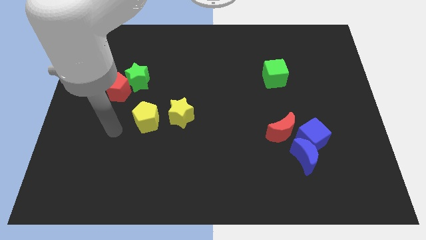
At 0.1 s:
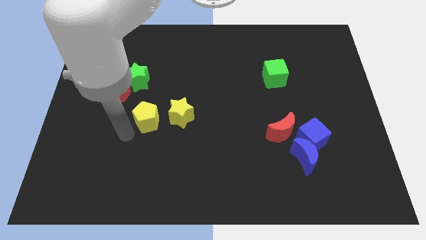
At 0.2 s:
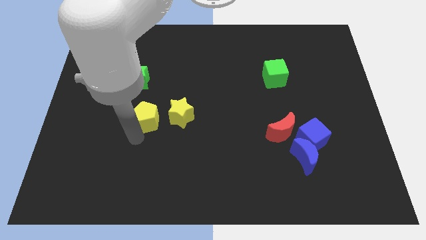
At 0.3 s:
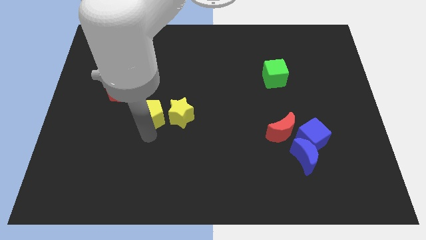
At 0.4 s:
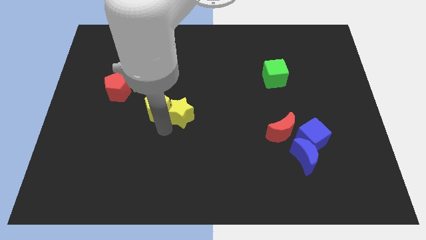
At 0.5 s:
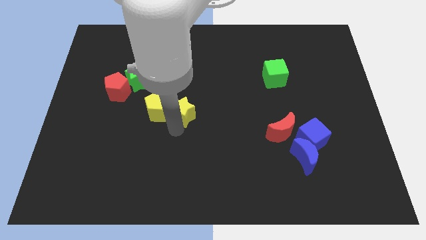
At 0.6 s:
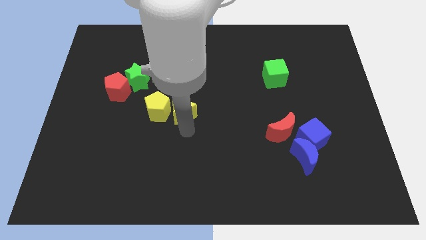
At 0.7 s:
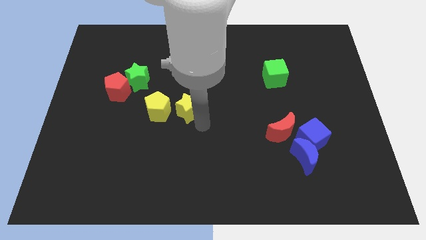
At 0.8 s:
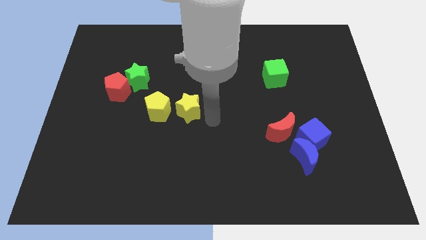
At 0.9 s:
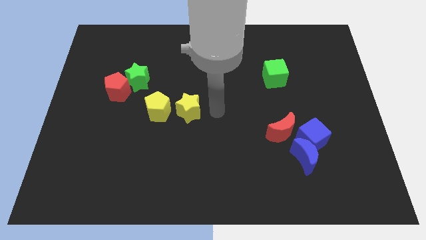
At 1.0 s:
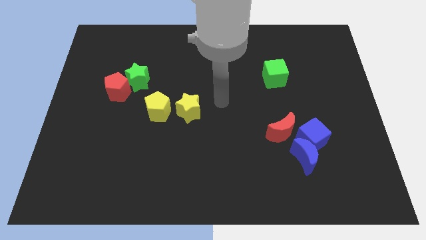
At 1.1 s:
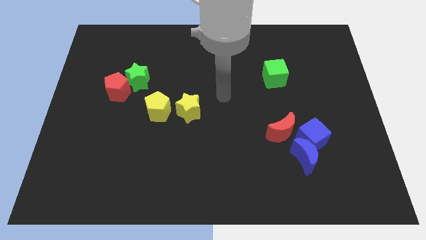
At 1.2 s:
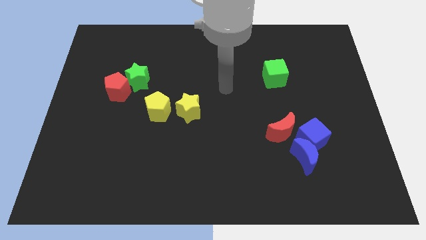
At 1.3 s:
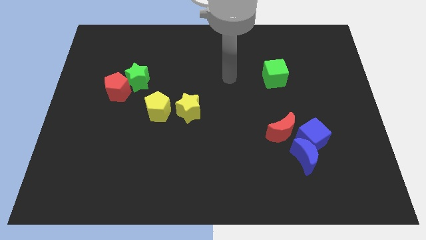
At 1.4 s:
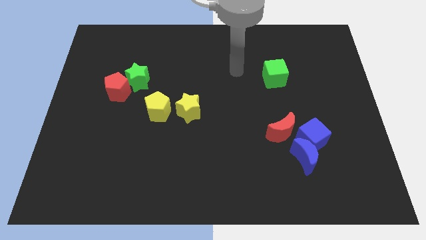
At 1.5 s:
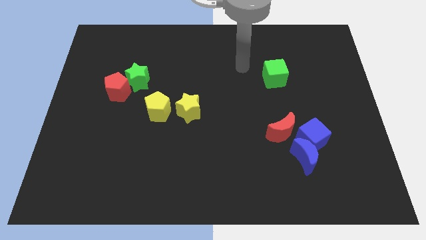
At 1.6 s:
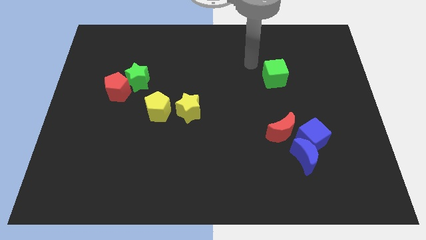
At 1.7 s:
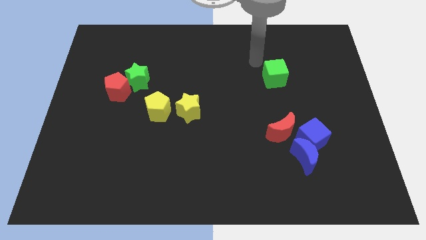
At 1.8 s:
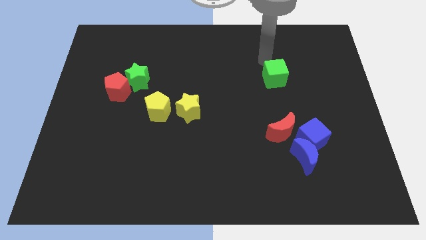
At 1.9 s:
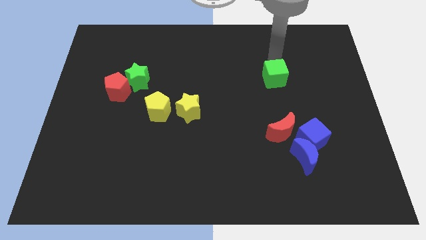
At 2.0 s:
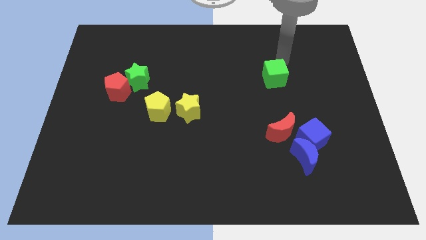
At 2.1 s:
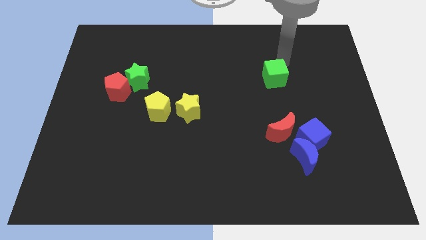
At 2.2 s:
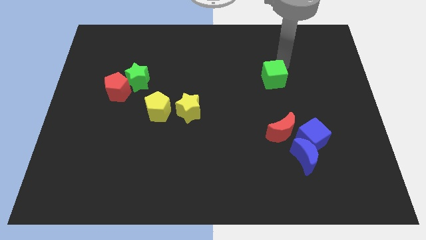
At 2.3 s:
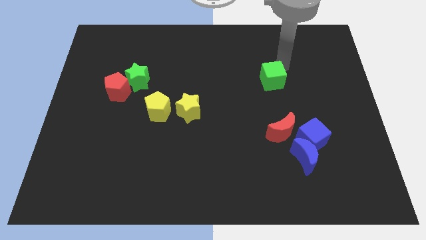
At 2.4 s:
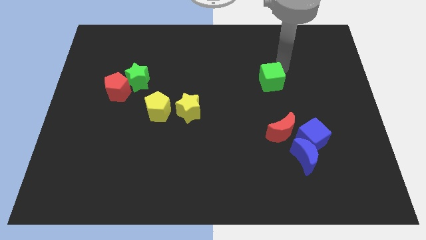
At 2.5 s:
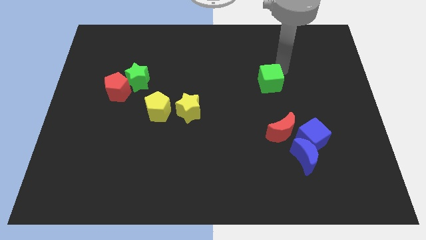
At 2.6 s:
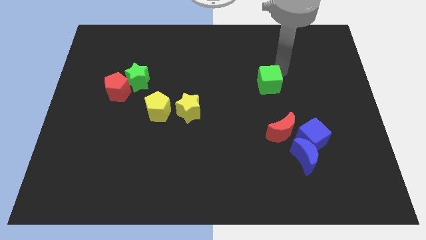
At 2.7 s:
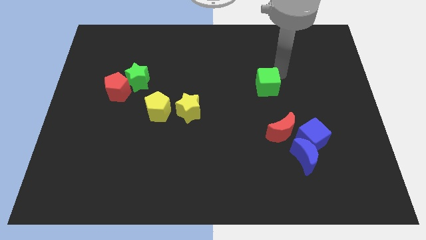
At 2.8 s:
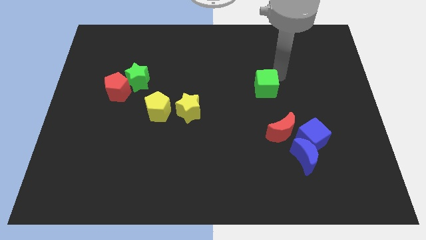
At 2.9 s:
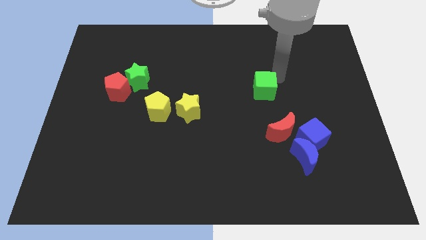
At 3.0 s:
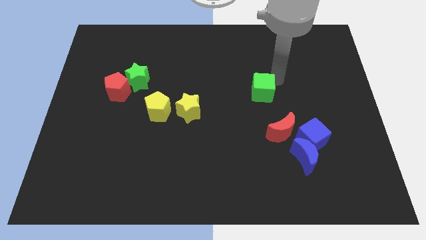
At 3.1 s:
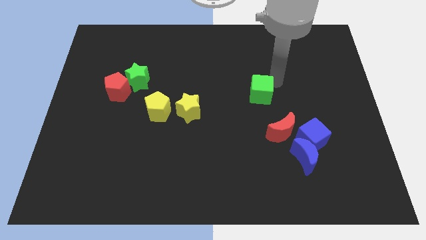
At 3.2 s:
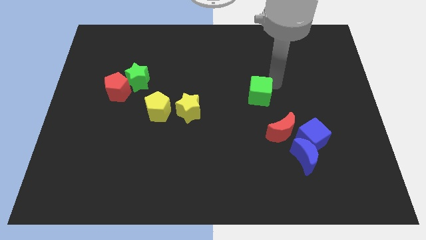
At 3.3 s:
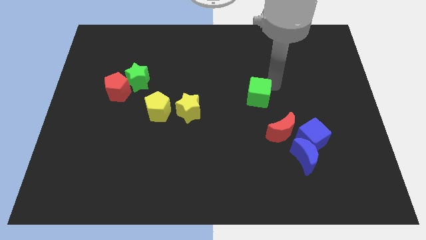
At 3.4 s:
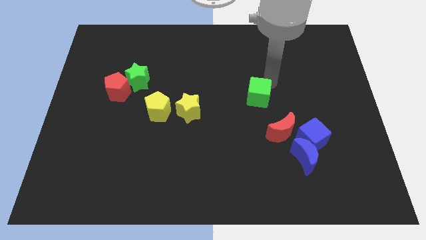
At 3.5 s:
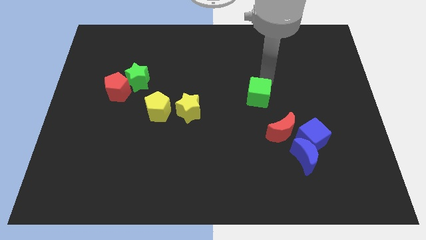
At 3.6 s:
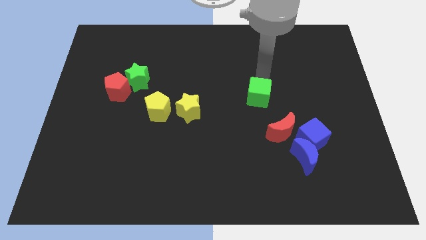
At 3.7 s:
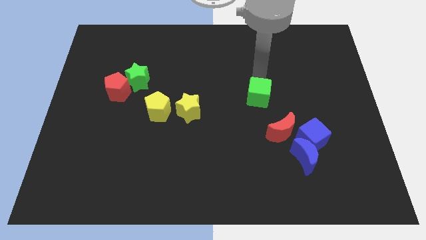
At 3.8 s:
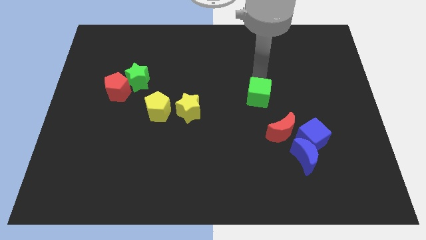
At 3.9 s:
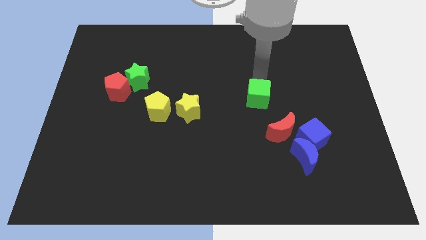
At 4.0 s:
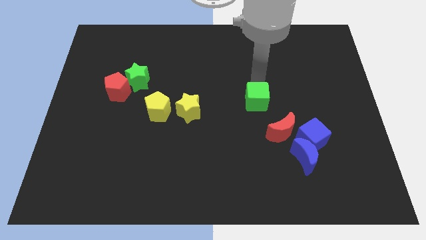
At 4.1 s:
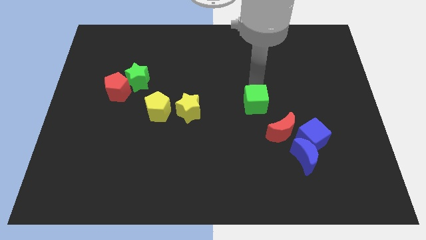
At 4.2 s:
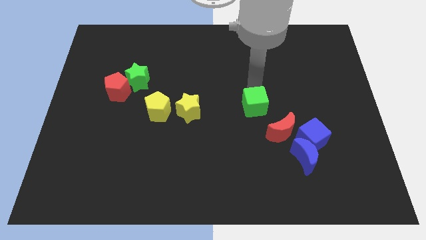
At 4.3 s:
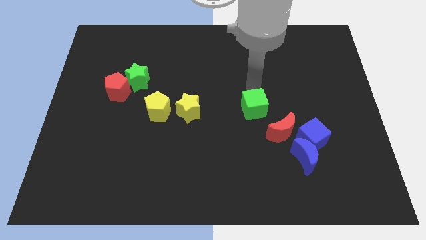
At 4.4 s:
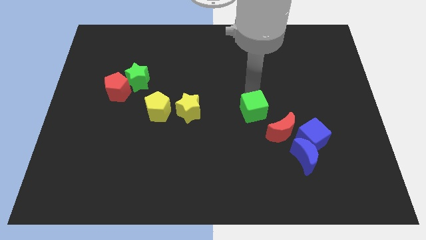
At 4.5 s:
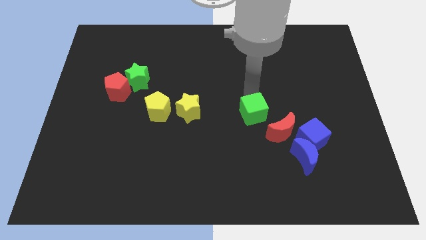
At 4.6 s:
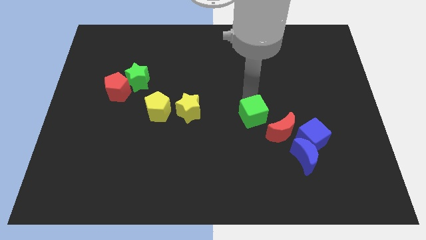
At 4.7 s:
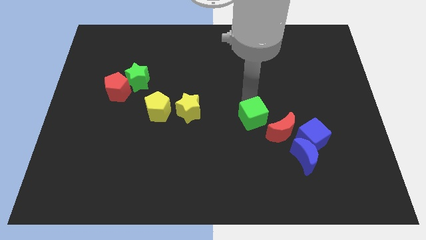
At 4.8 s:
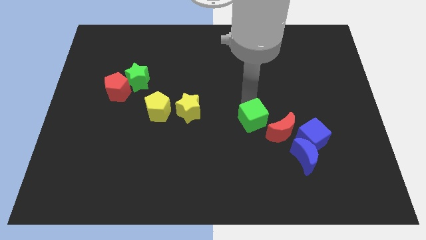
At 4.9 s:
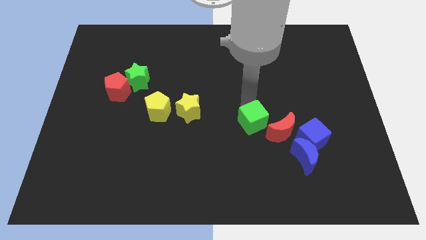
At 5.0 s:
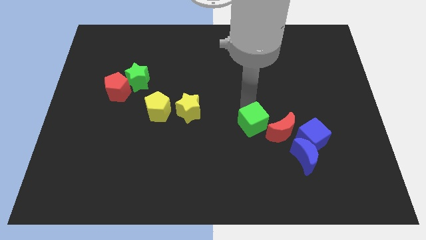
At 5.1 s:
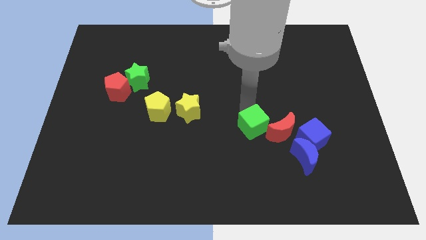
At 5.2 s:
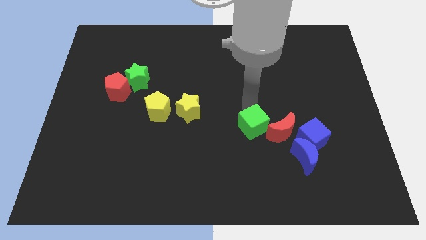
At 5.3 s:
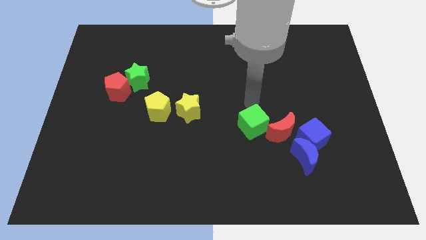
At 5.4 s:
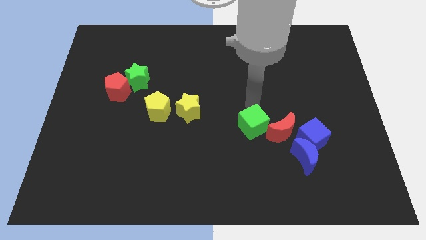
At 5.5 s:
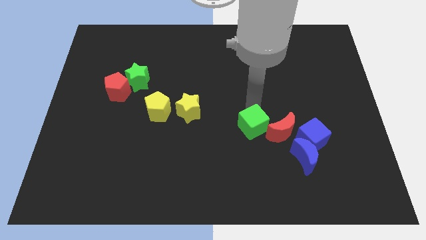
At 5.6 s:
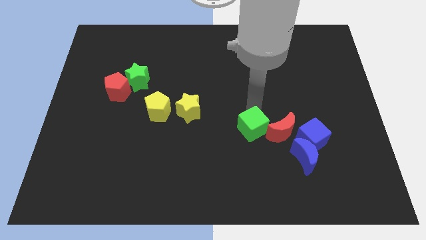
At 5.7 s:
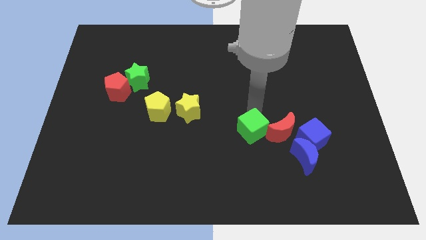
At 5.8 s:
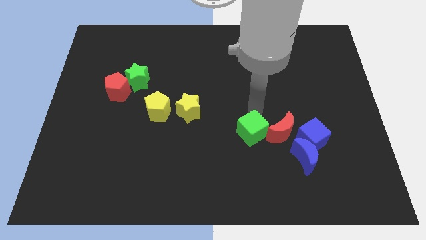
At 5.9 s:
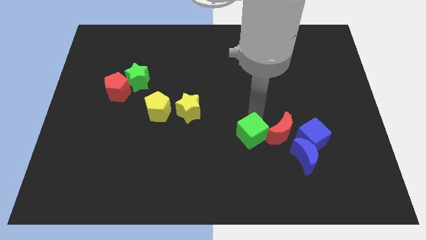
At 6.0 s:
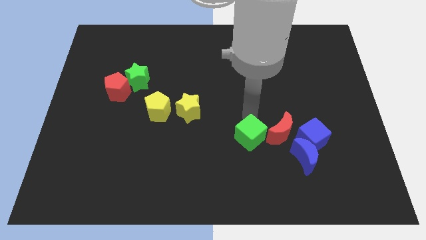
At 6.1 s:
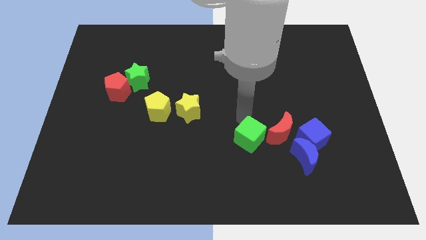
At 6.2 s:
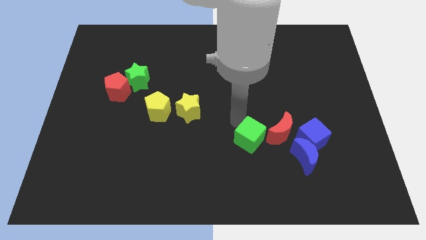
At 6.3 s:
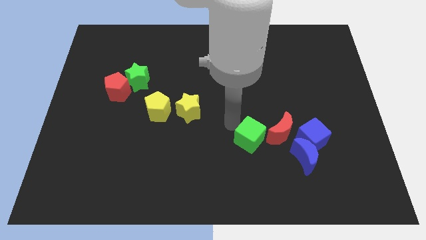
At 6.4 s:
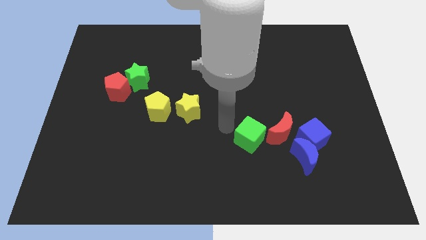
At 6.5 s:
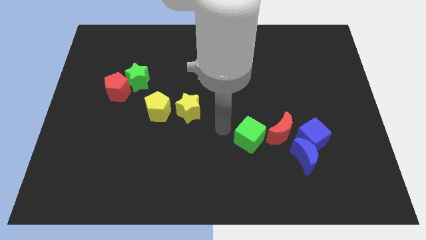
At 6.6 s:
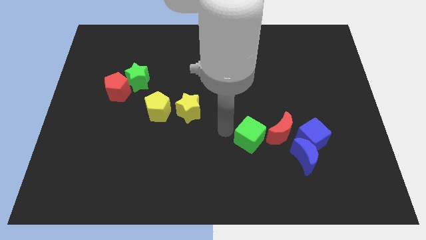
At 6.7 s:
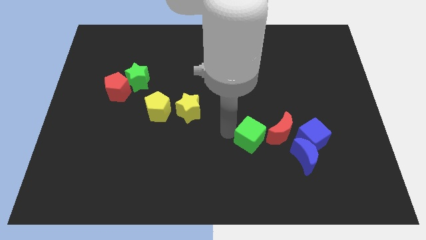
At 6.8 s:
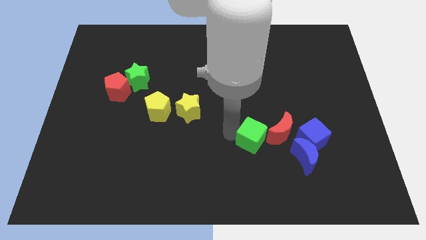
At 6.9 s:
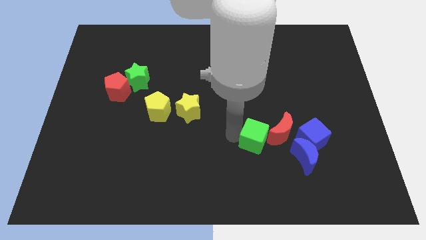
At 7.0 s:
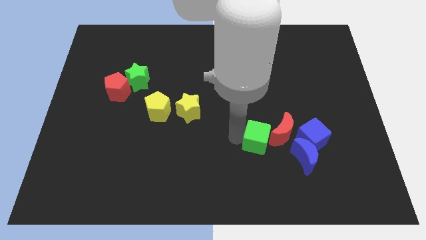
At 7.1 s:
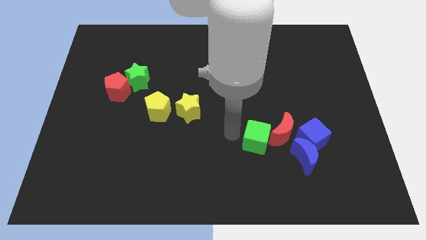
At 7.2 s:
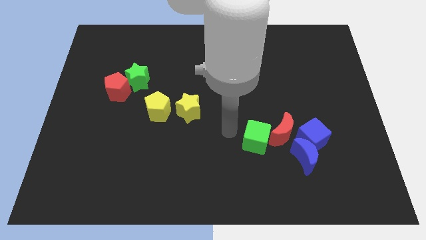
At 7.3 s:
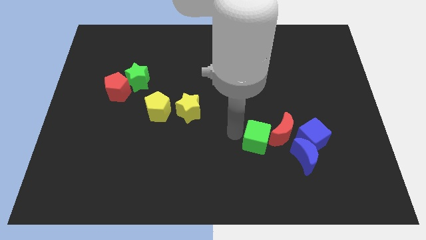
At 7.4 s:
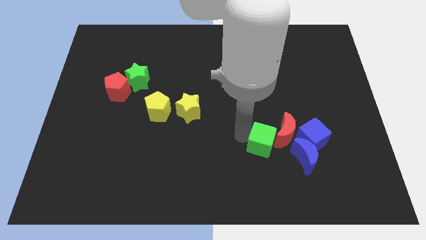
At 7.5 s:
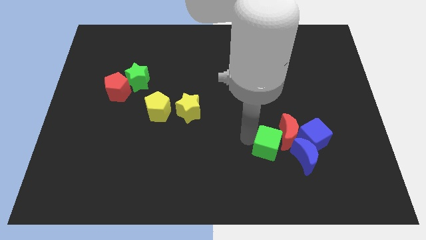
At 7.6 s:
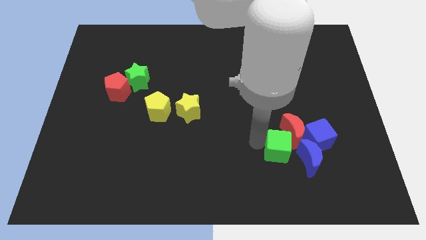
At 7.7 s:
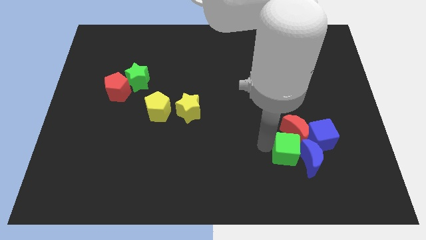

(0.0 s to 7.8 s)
push the green cube close to the blue moon
